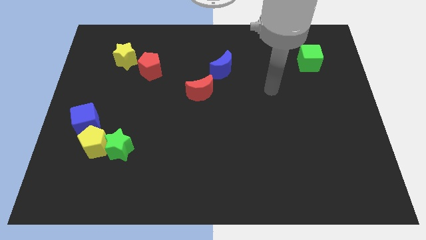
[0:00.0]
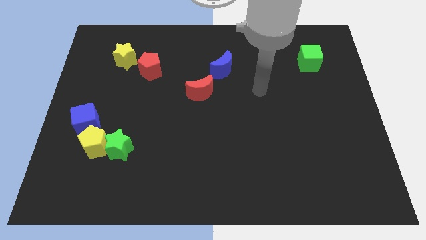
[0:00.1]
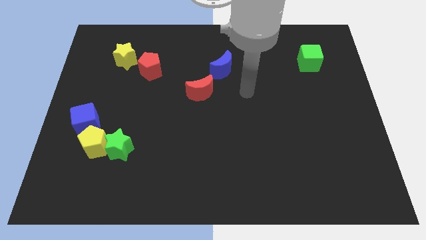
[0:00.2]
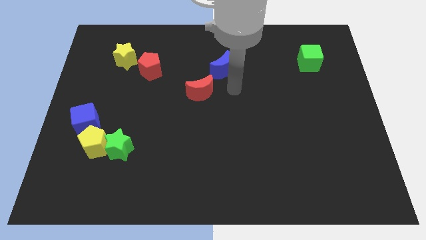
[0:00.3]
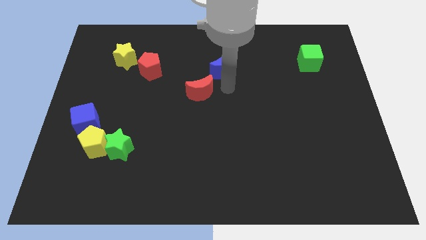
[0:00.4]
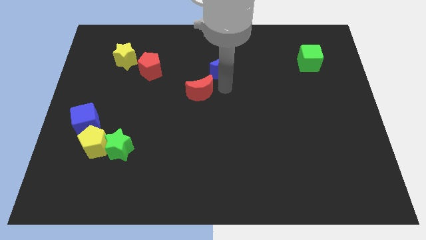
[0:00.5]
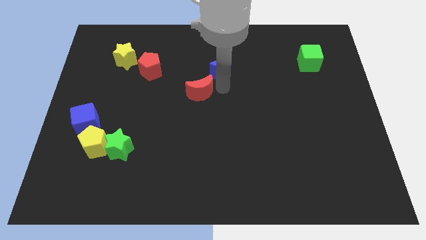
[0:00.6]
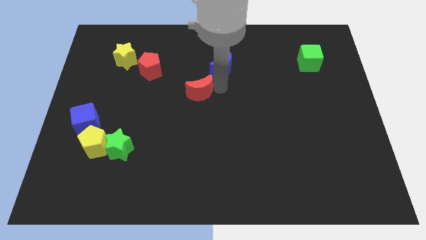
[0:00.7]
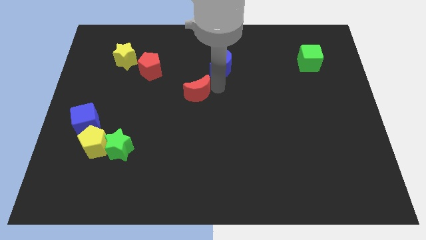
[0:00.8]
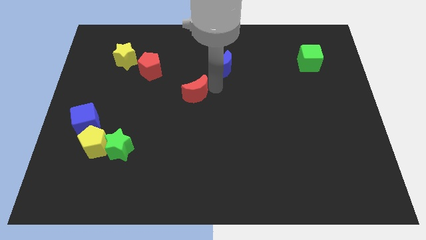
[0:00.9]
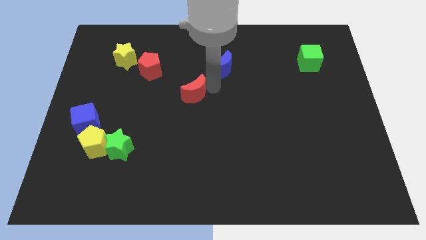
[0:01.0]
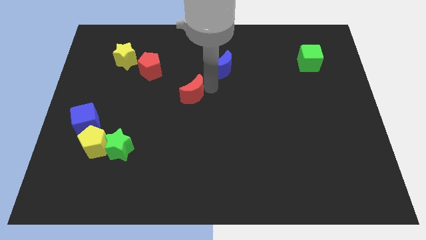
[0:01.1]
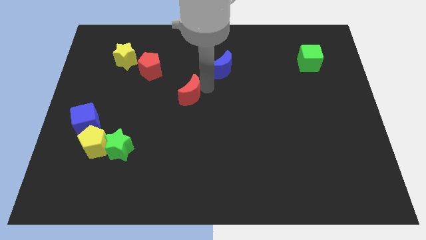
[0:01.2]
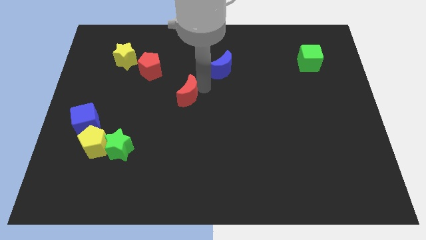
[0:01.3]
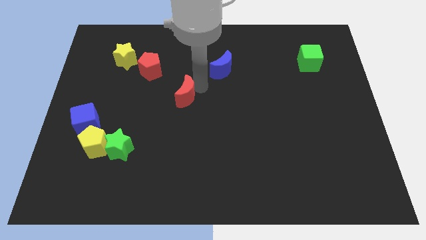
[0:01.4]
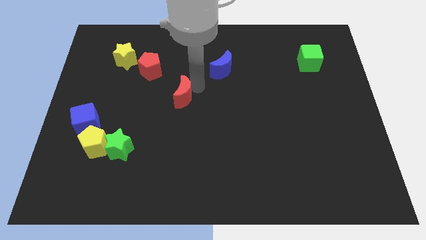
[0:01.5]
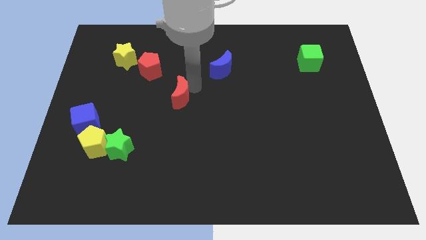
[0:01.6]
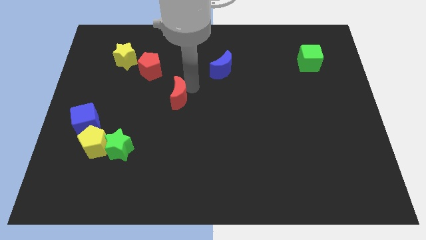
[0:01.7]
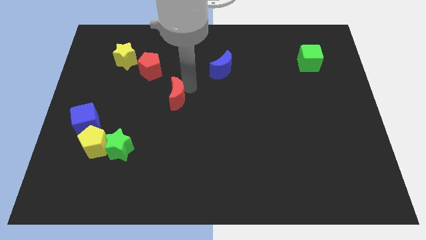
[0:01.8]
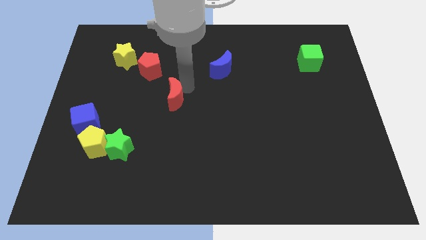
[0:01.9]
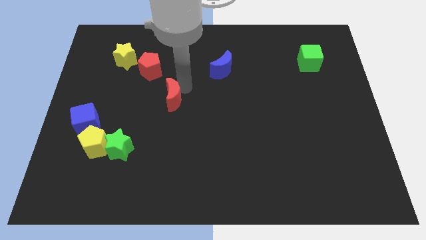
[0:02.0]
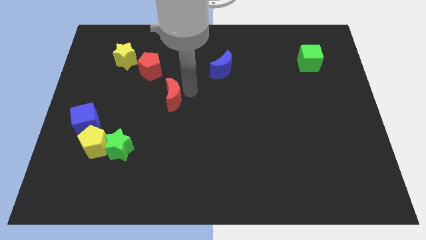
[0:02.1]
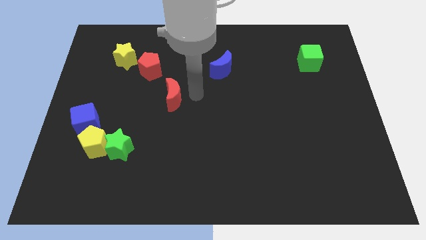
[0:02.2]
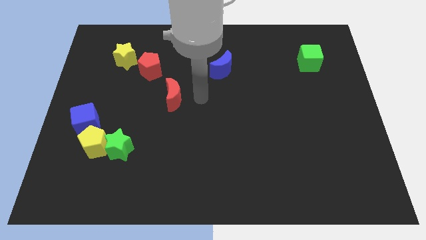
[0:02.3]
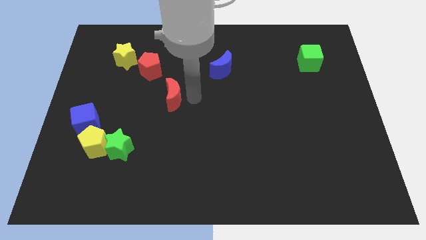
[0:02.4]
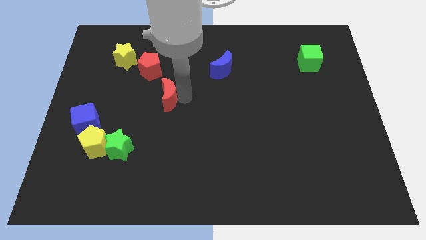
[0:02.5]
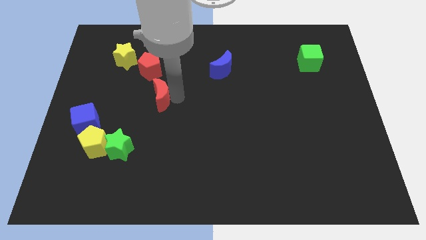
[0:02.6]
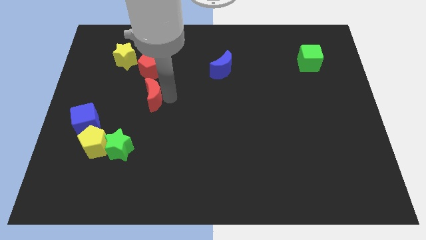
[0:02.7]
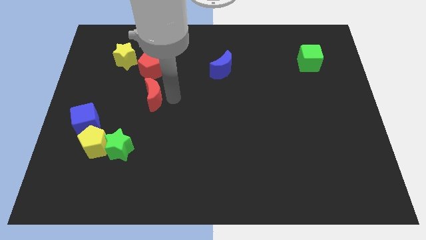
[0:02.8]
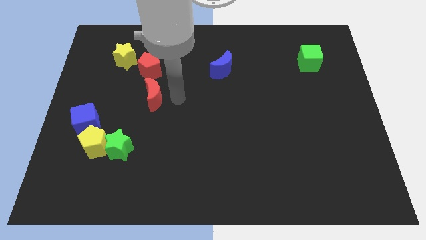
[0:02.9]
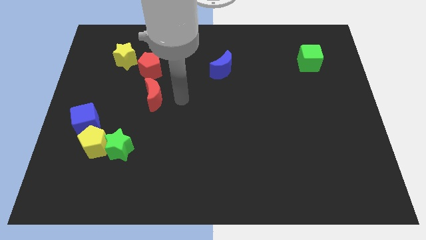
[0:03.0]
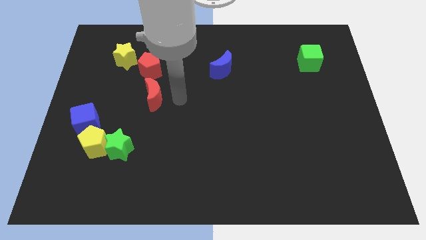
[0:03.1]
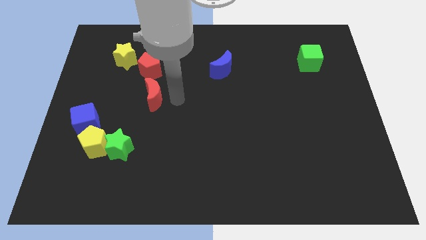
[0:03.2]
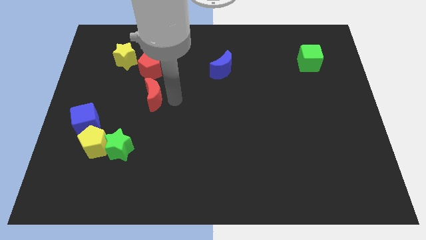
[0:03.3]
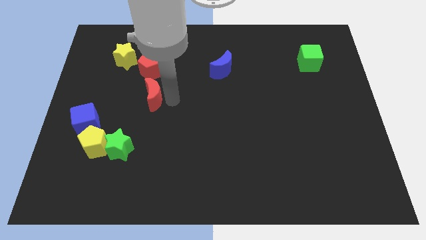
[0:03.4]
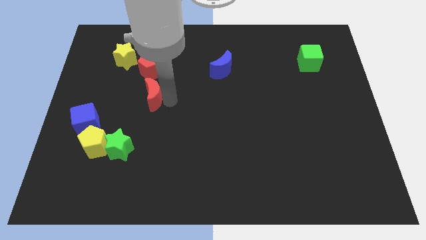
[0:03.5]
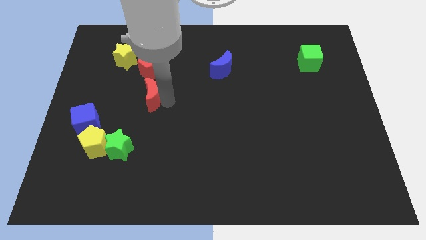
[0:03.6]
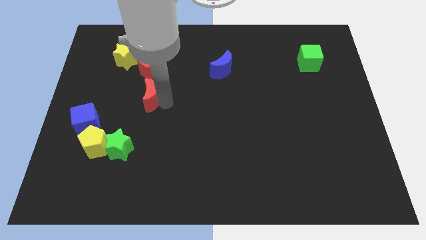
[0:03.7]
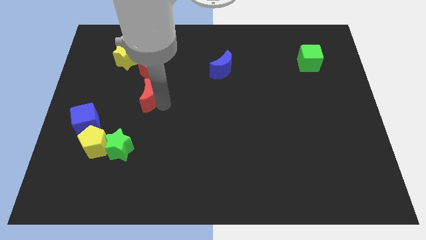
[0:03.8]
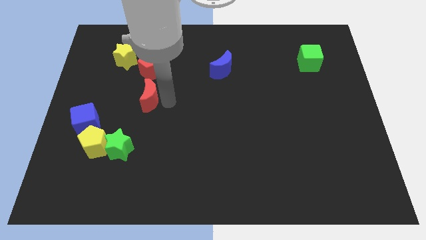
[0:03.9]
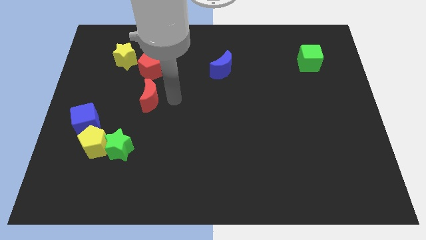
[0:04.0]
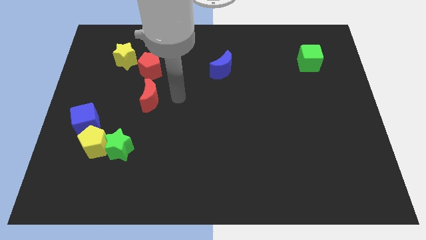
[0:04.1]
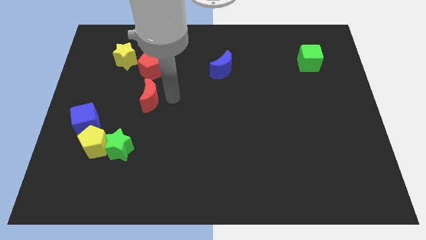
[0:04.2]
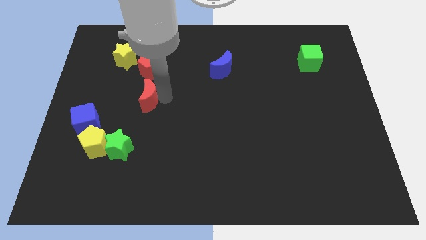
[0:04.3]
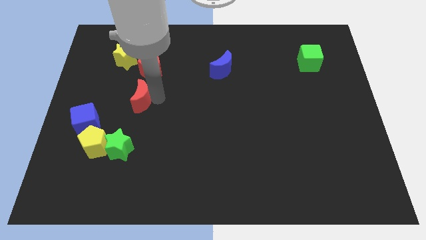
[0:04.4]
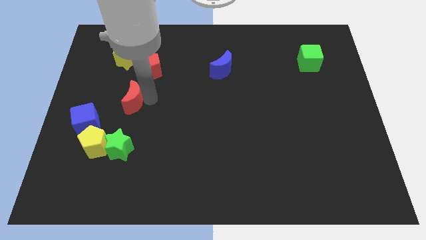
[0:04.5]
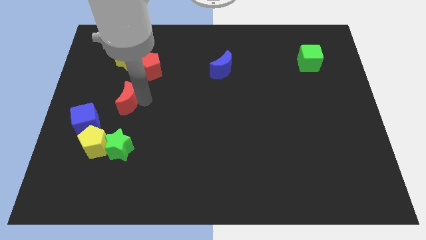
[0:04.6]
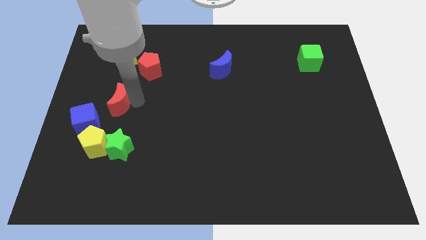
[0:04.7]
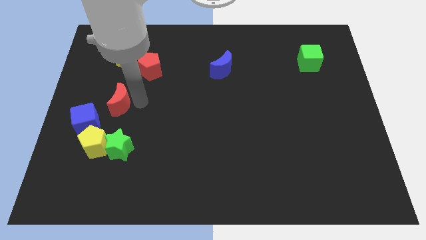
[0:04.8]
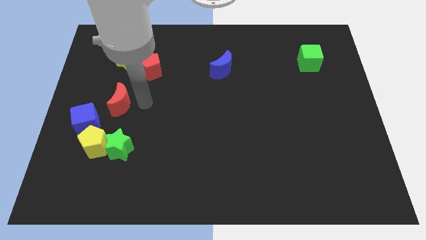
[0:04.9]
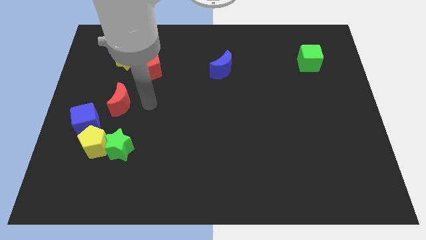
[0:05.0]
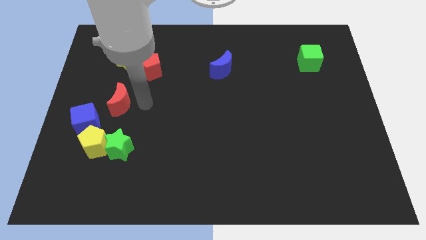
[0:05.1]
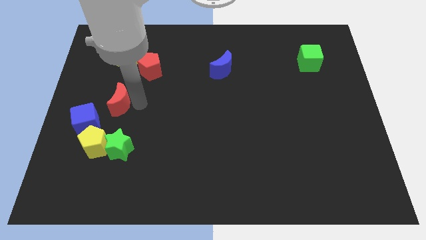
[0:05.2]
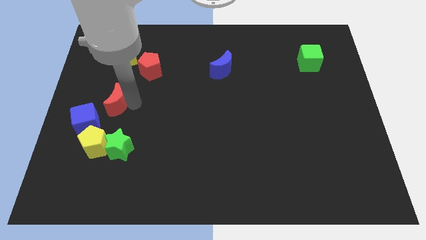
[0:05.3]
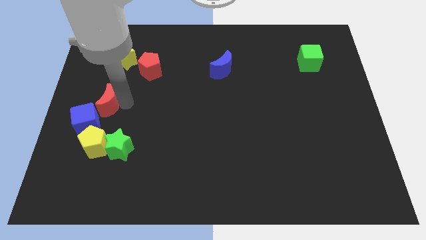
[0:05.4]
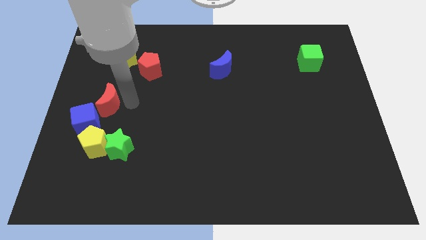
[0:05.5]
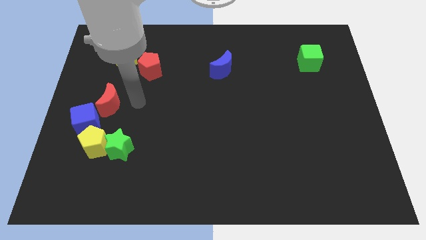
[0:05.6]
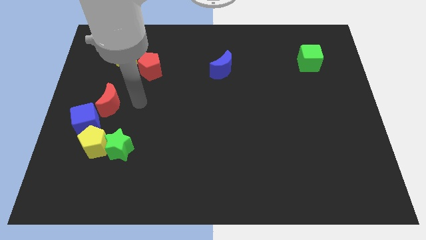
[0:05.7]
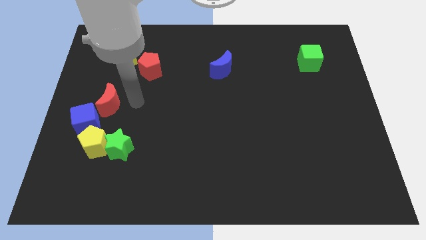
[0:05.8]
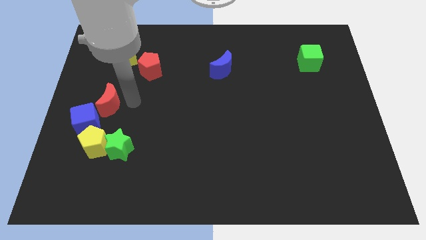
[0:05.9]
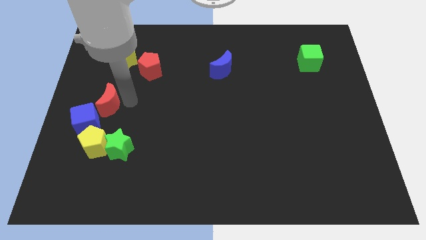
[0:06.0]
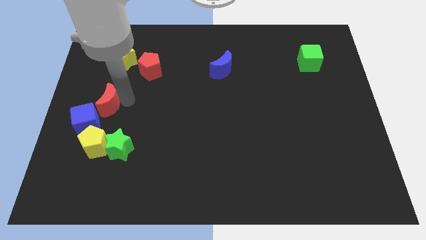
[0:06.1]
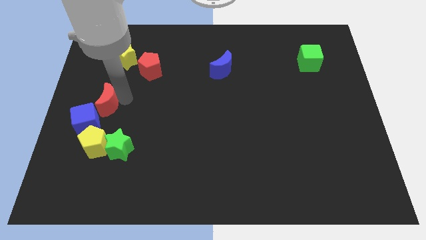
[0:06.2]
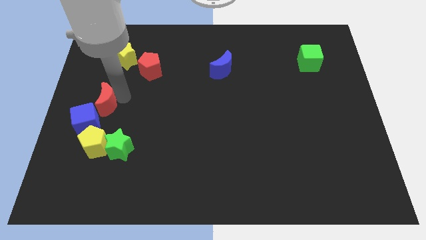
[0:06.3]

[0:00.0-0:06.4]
slide the red moon to the left side
